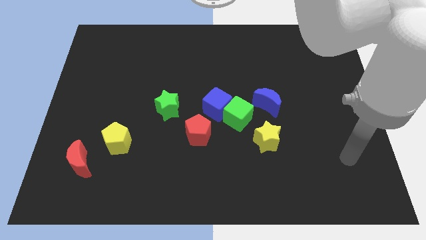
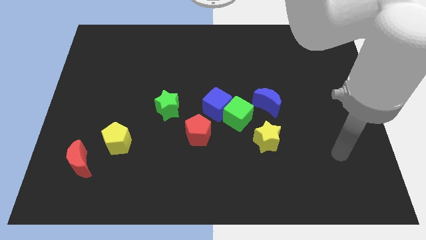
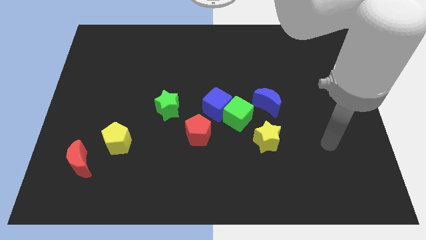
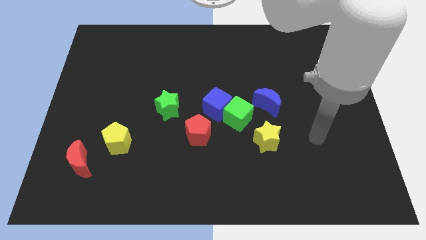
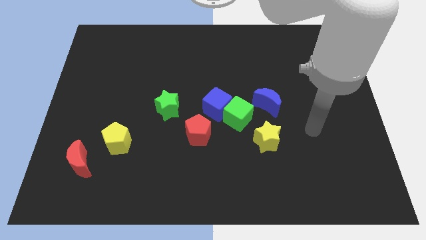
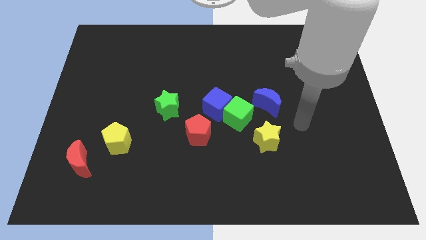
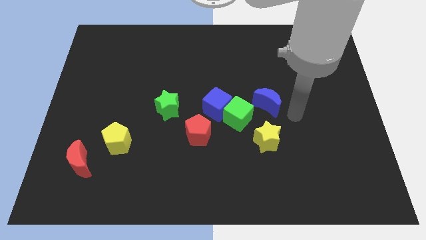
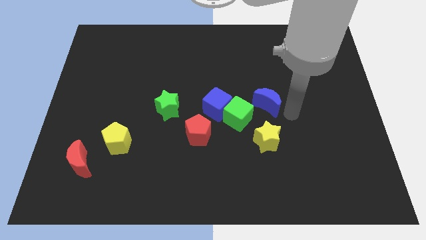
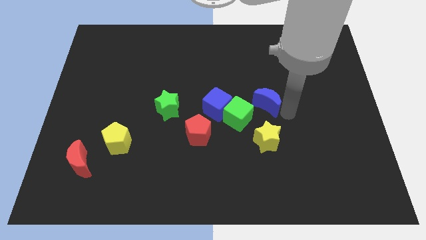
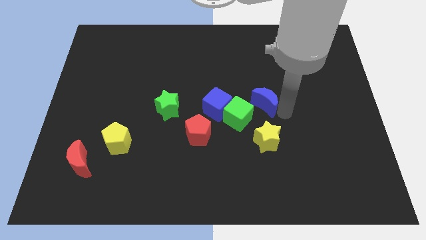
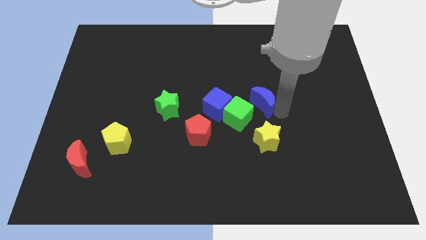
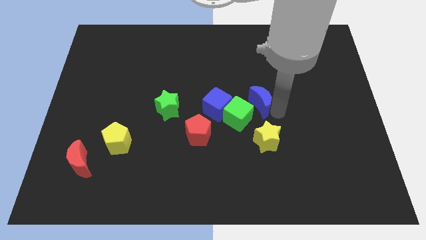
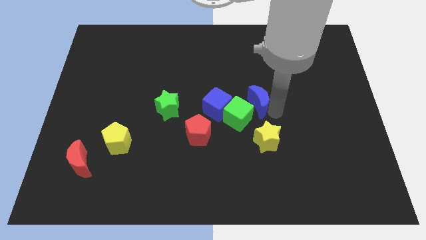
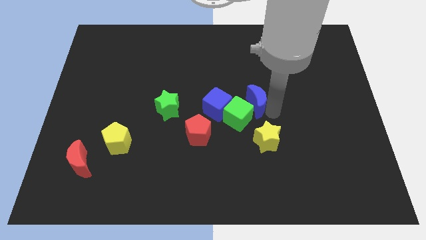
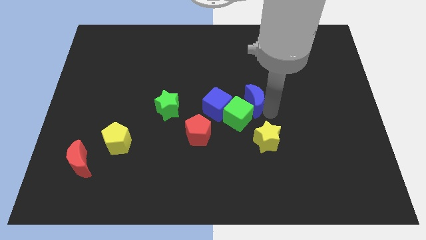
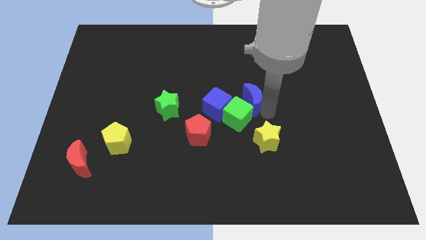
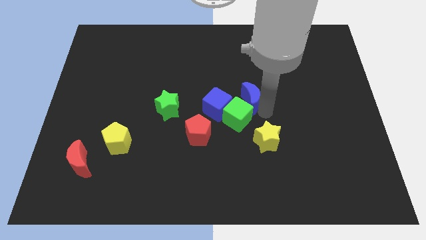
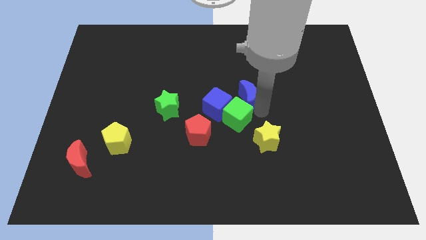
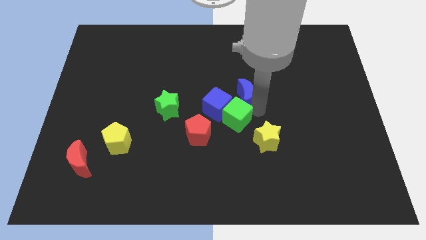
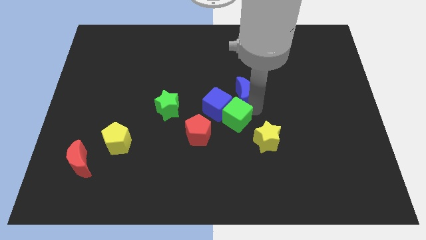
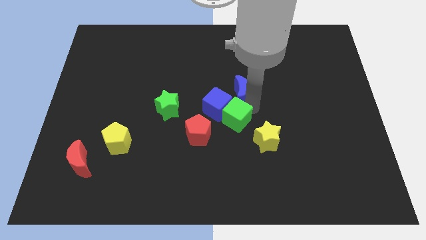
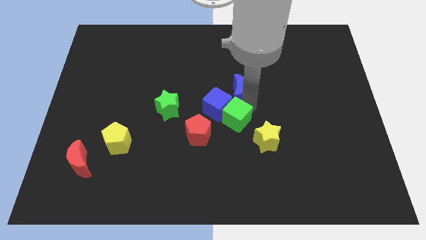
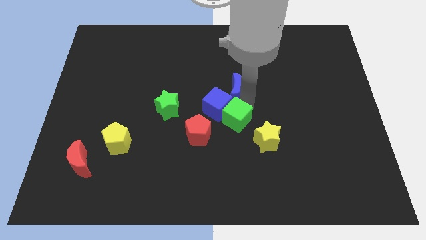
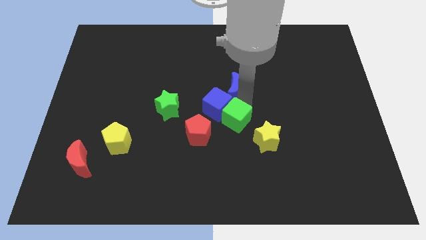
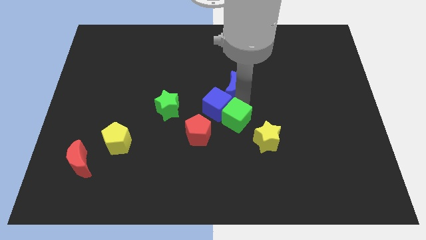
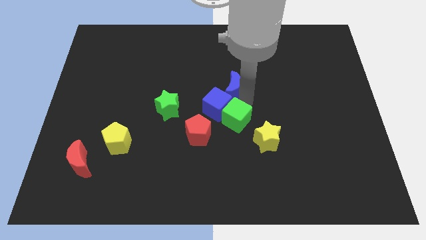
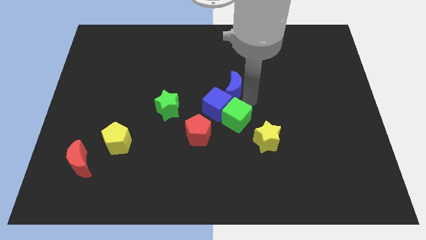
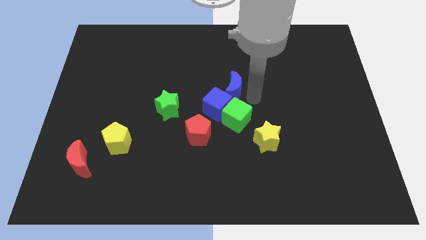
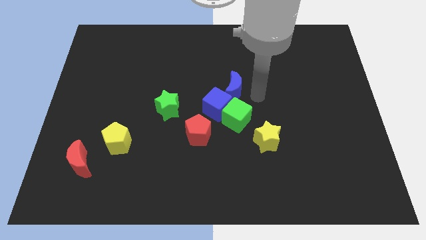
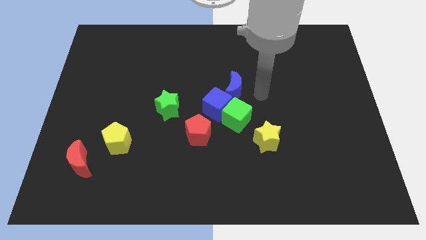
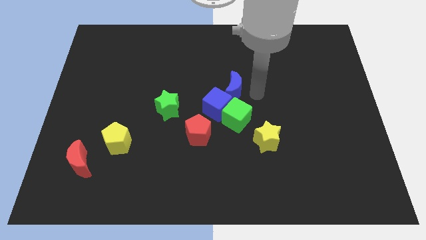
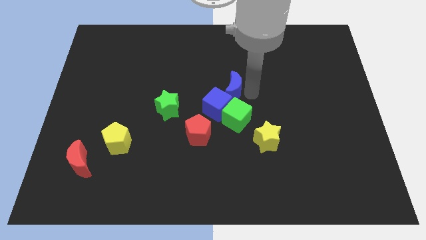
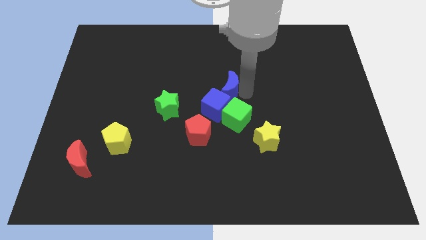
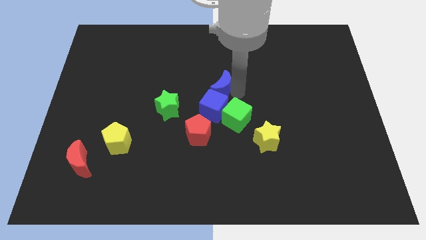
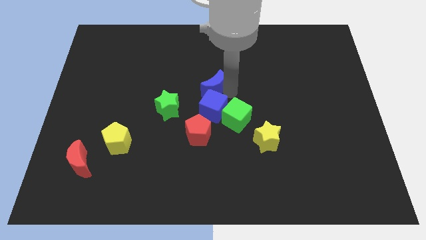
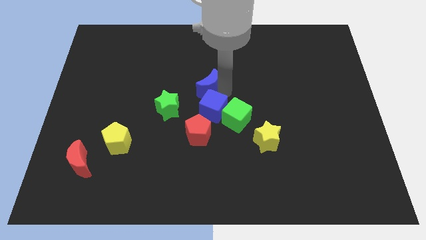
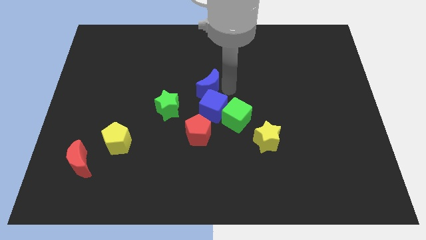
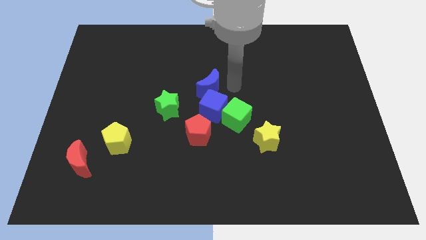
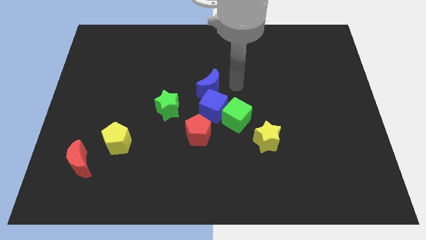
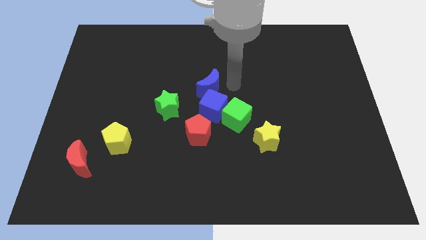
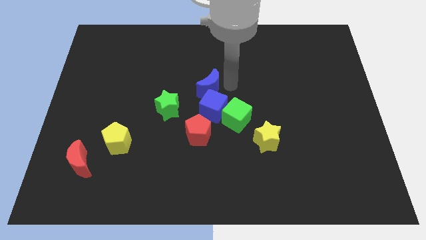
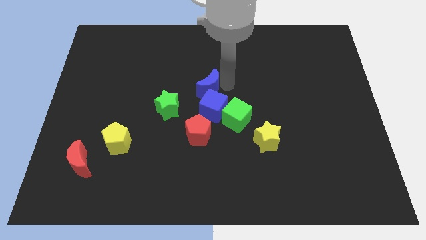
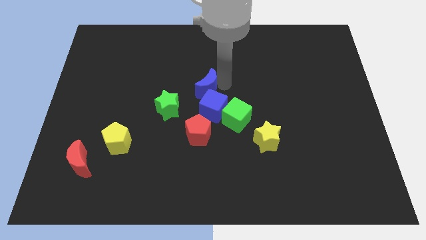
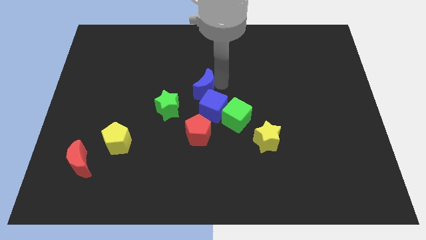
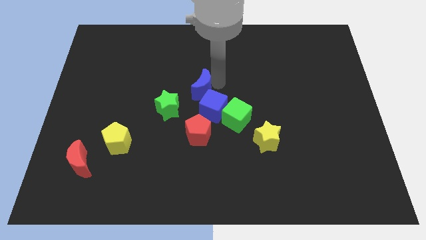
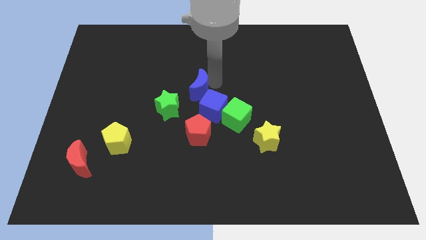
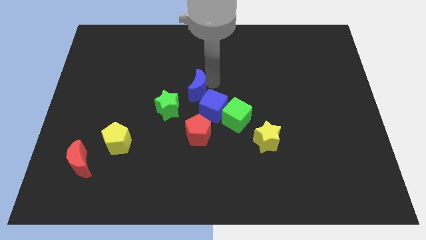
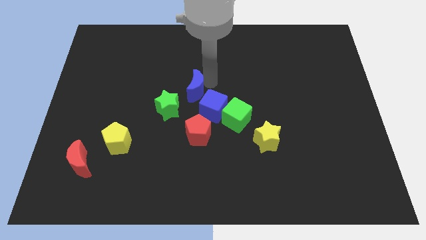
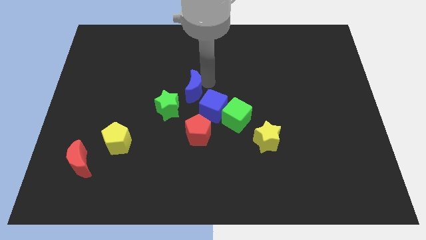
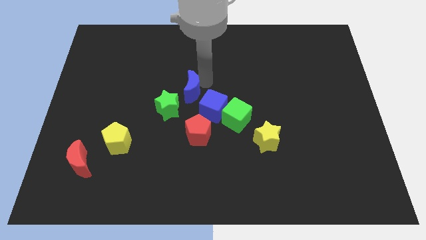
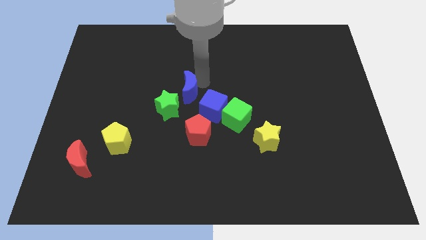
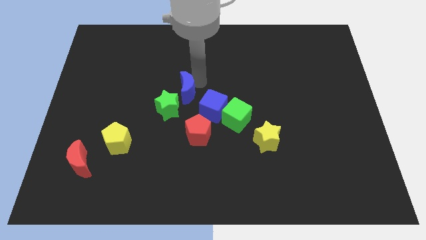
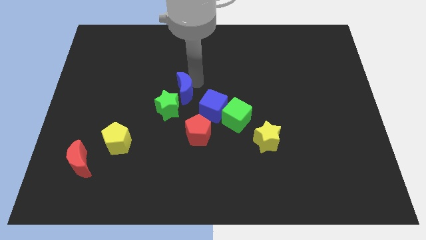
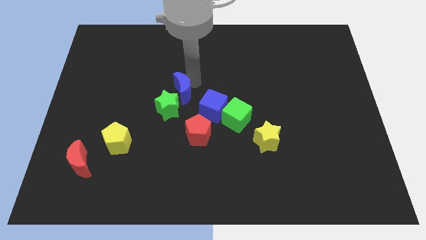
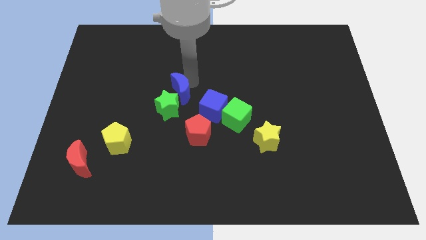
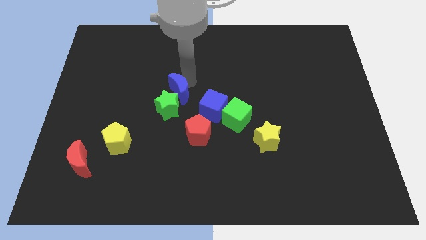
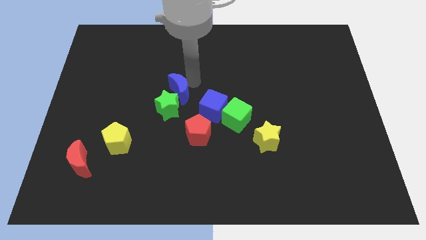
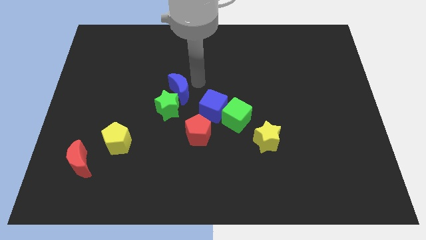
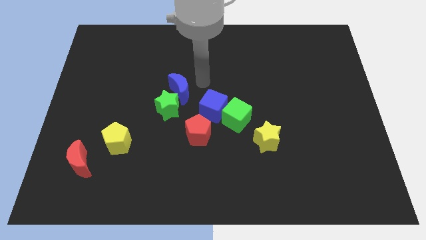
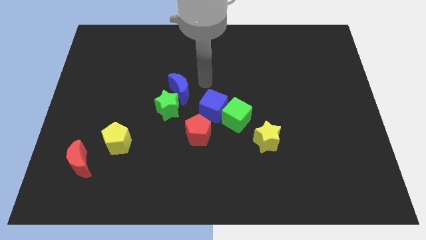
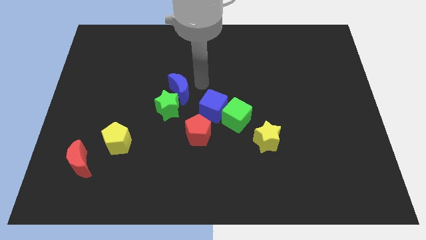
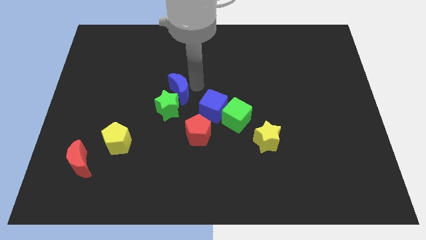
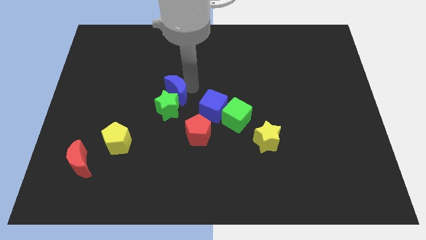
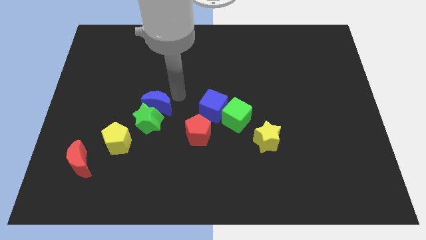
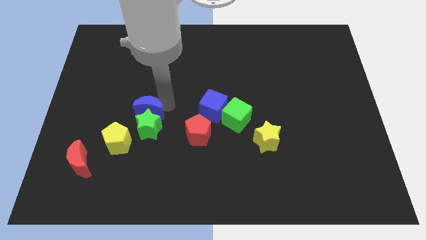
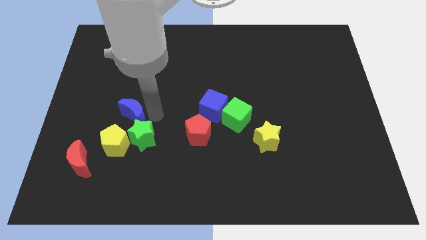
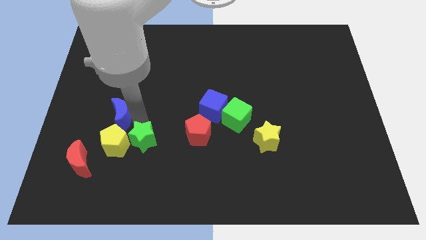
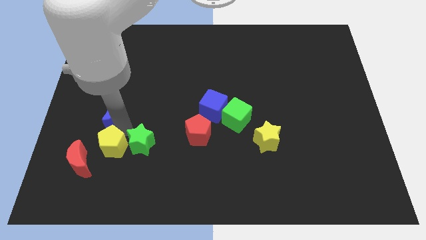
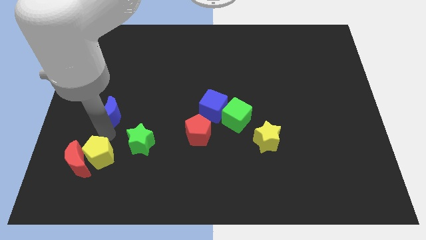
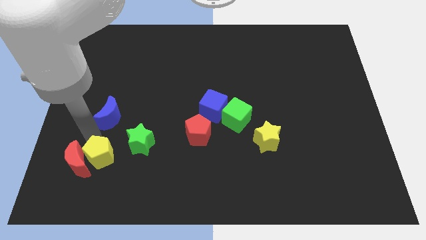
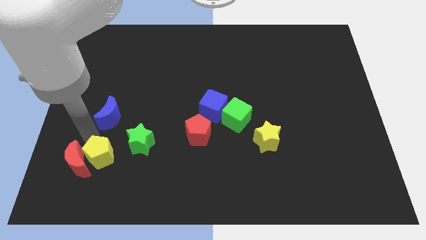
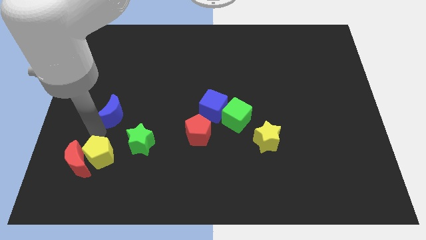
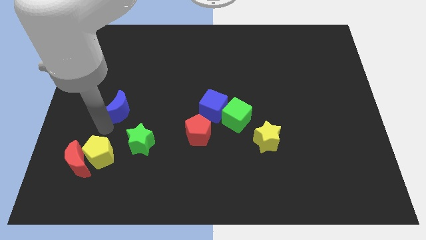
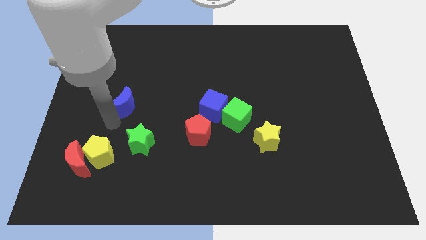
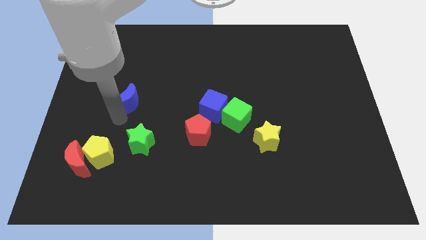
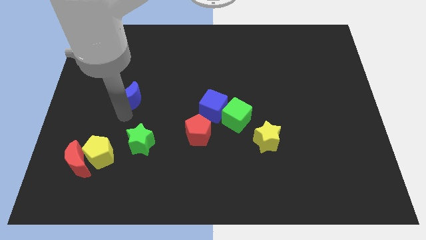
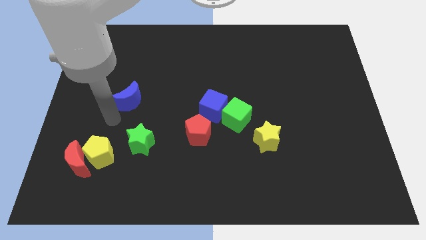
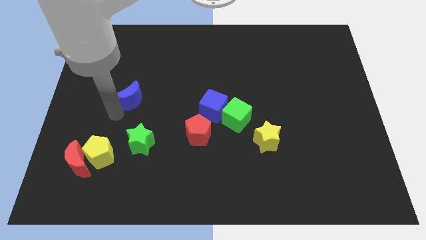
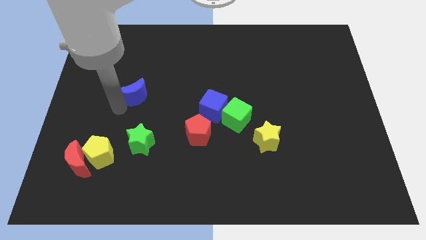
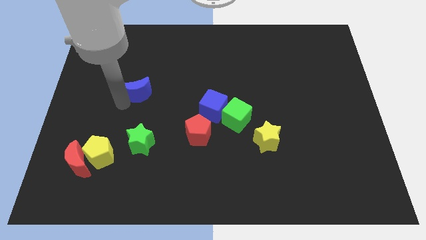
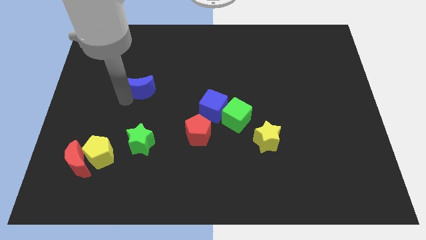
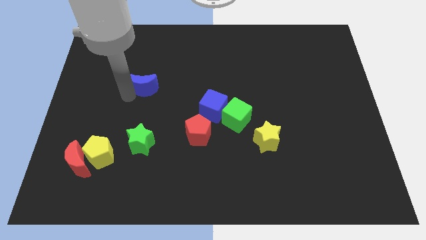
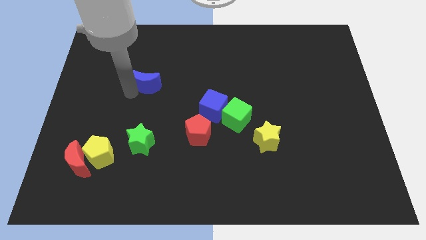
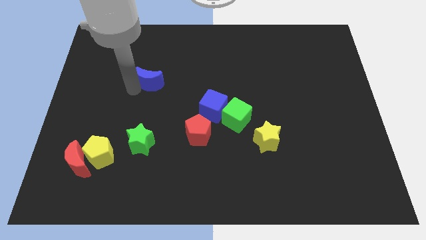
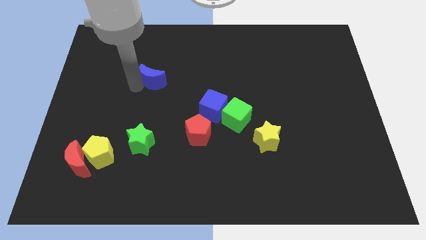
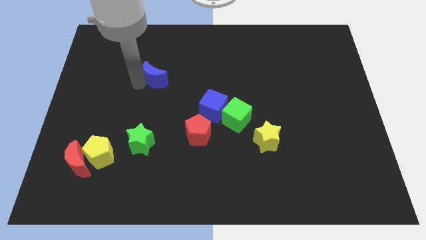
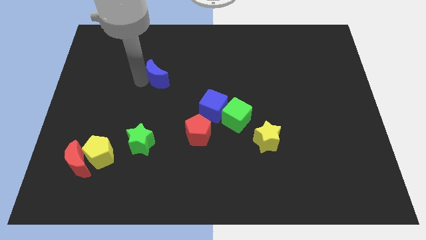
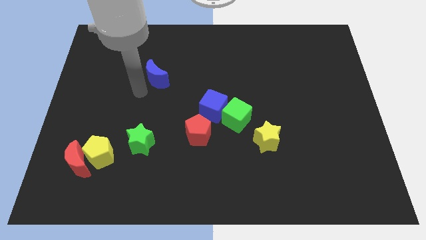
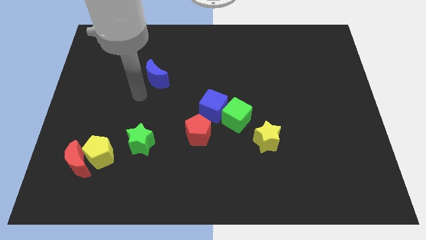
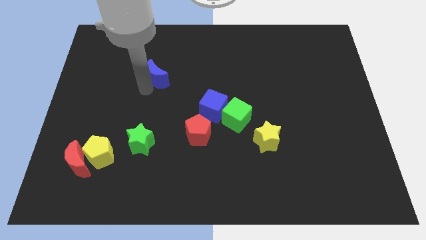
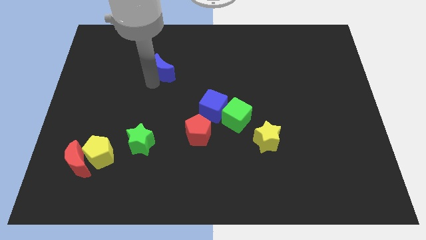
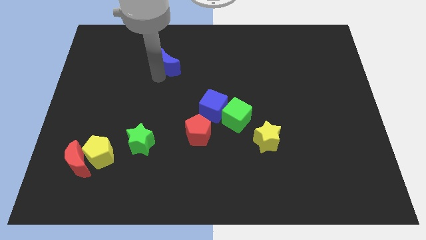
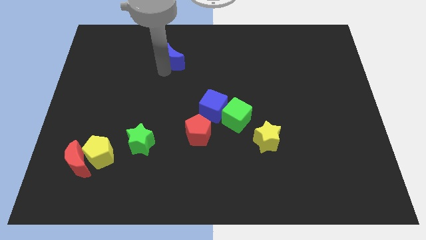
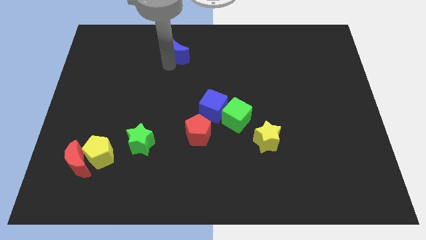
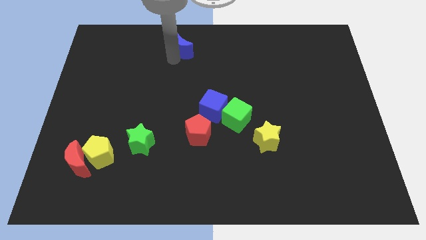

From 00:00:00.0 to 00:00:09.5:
put the blue moon to the towards your base
